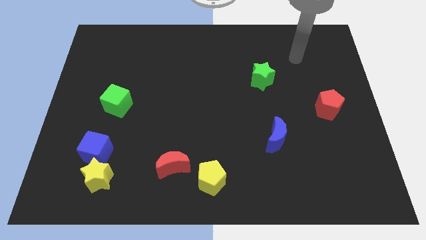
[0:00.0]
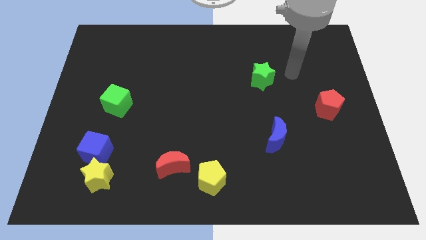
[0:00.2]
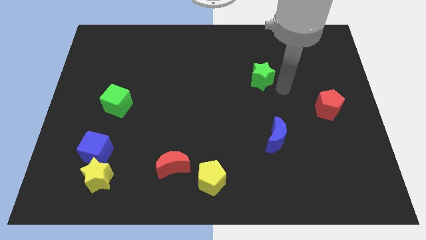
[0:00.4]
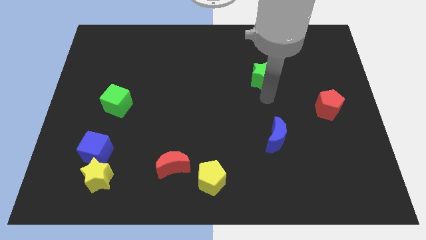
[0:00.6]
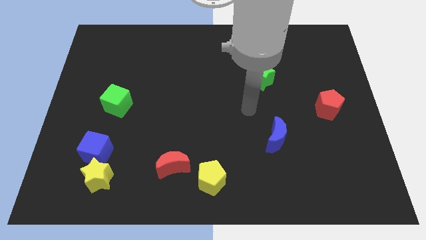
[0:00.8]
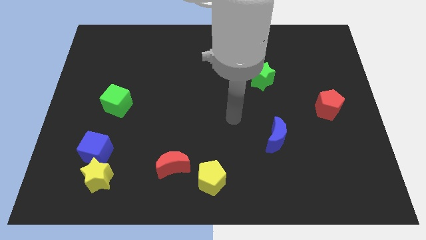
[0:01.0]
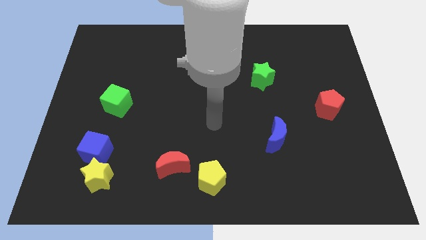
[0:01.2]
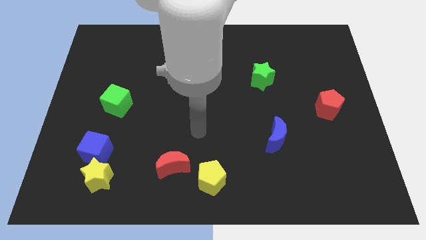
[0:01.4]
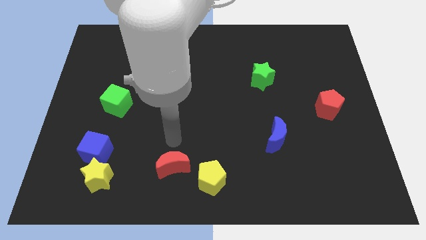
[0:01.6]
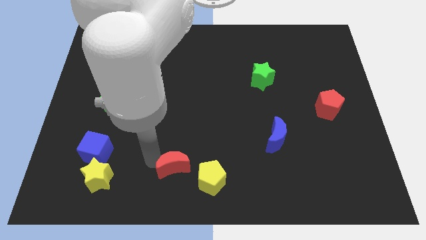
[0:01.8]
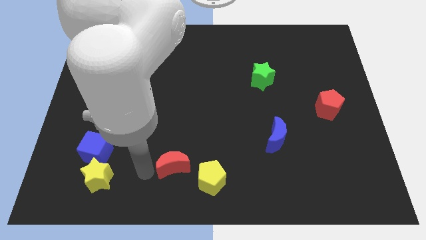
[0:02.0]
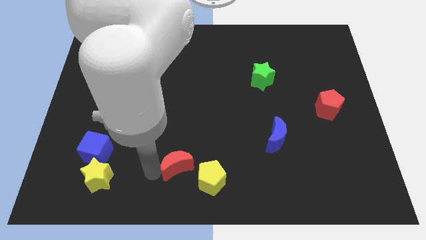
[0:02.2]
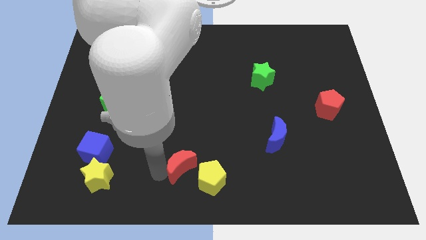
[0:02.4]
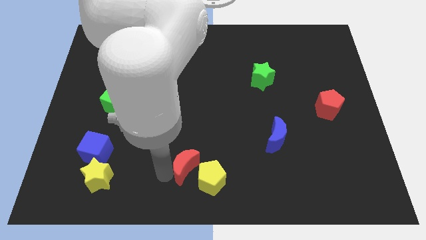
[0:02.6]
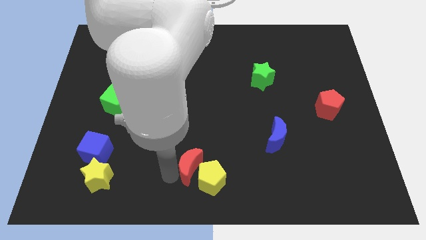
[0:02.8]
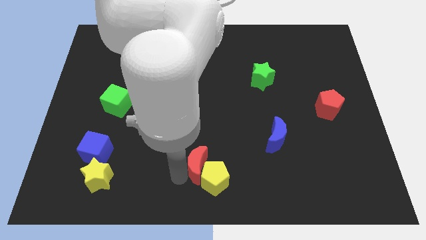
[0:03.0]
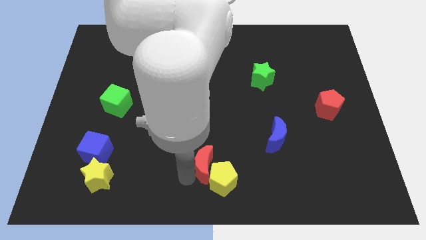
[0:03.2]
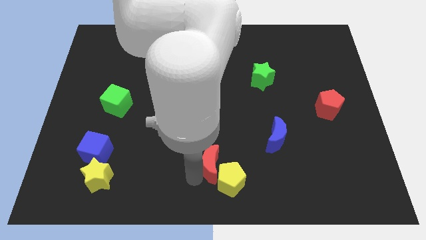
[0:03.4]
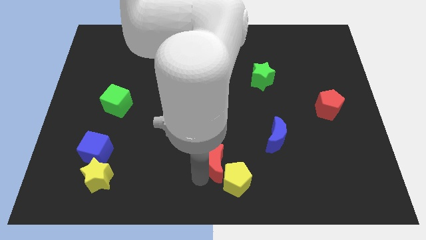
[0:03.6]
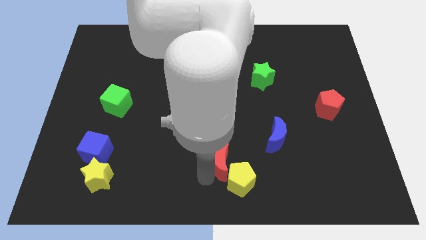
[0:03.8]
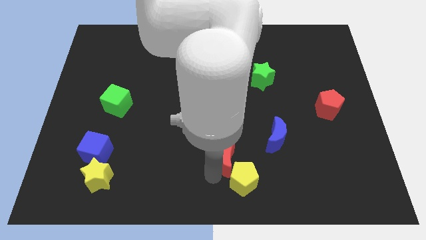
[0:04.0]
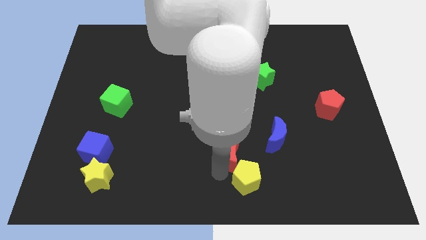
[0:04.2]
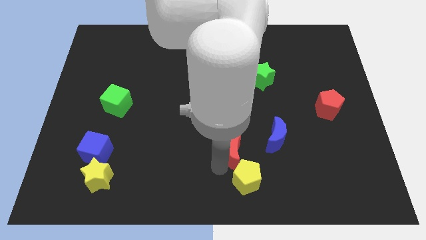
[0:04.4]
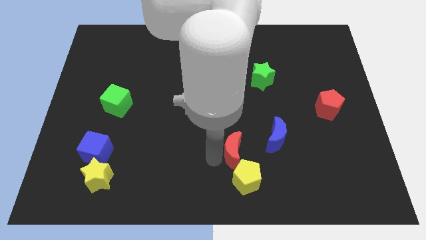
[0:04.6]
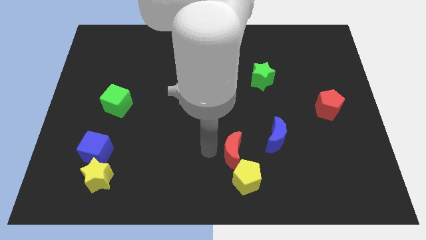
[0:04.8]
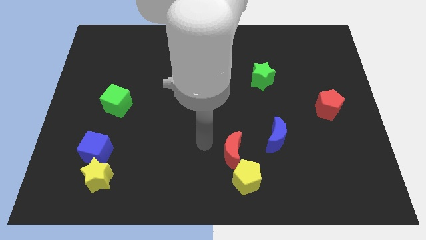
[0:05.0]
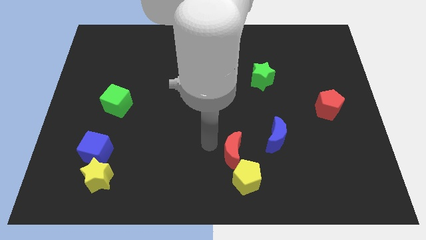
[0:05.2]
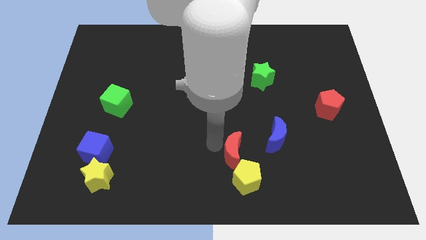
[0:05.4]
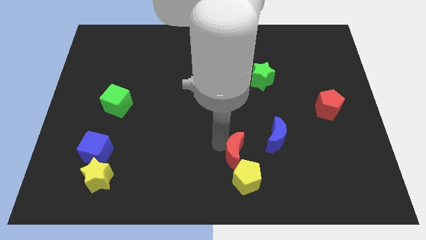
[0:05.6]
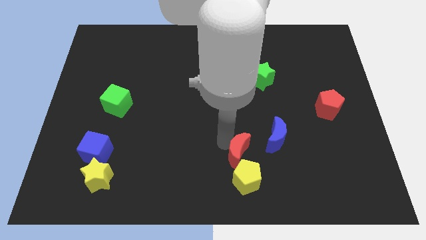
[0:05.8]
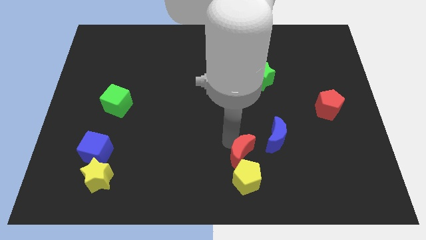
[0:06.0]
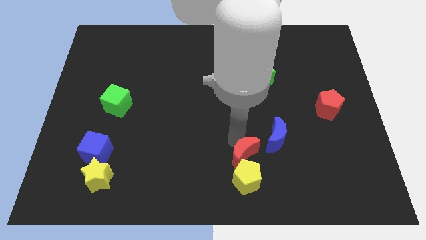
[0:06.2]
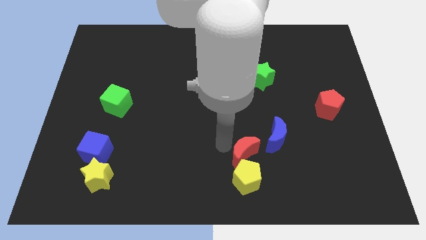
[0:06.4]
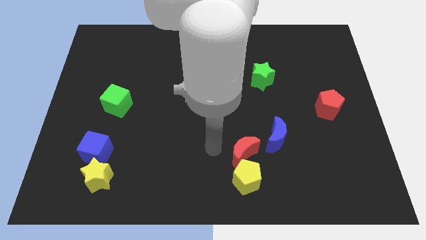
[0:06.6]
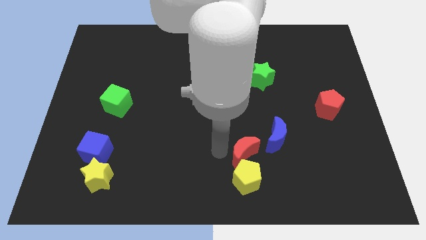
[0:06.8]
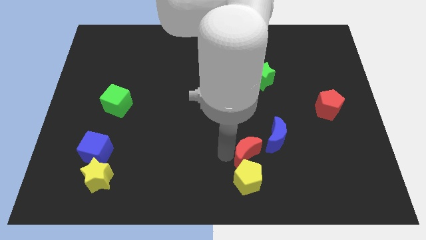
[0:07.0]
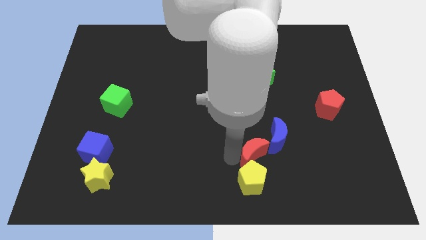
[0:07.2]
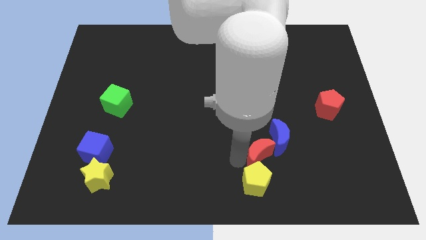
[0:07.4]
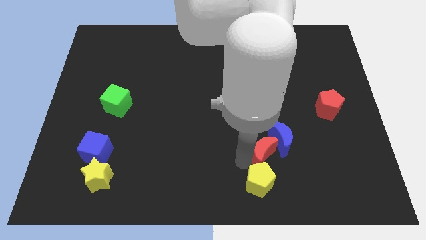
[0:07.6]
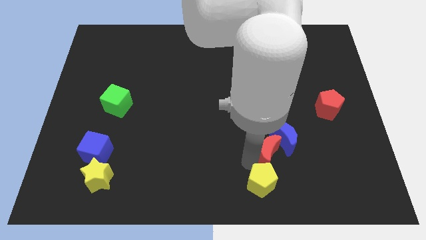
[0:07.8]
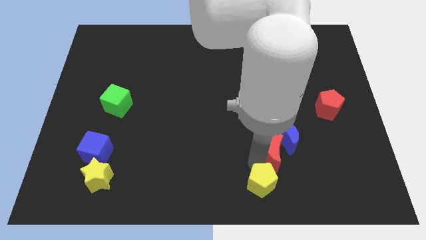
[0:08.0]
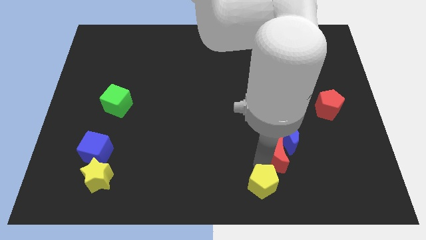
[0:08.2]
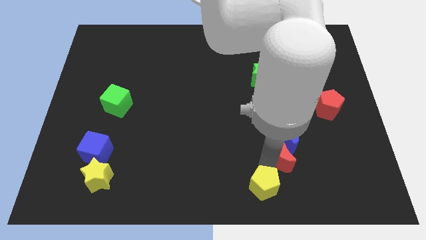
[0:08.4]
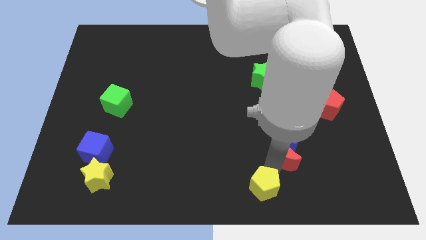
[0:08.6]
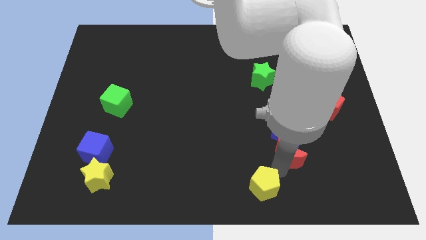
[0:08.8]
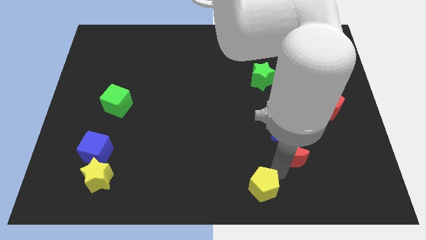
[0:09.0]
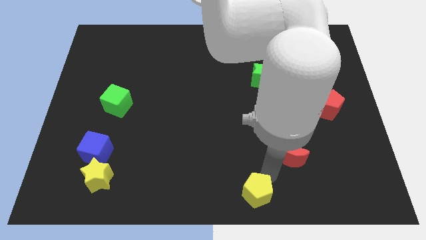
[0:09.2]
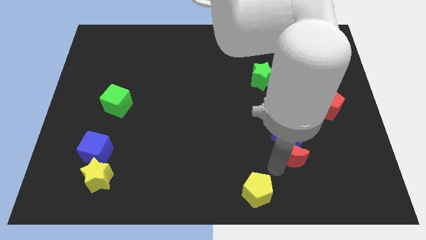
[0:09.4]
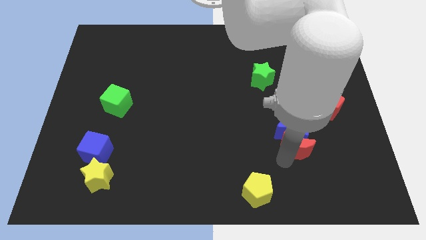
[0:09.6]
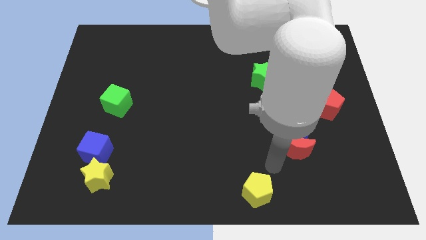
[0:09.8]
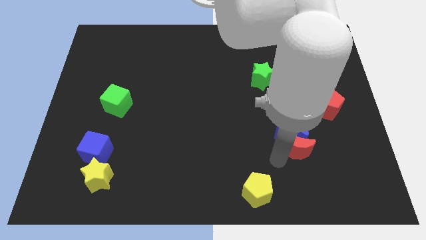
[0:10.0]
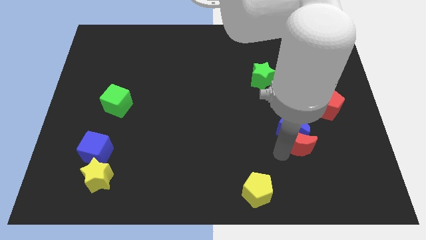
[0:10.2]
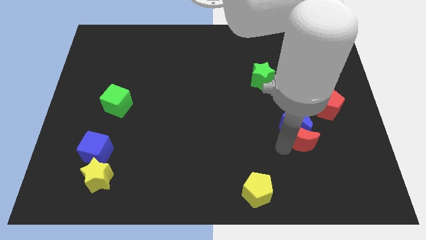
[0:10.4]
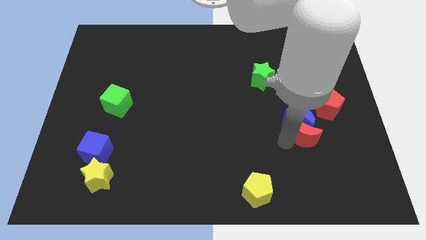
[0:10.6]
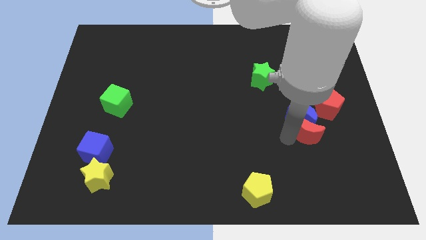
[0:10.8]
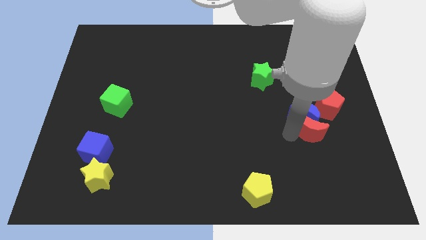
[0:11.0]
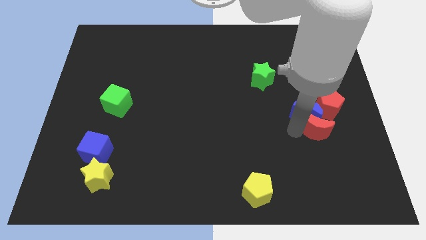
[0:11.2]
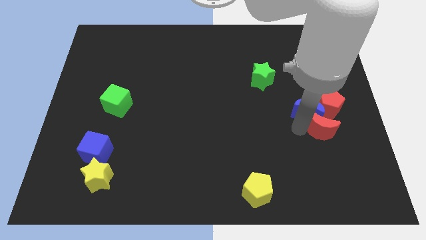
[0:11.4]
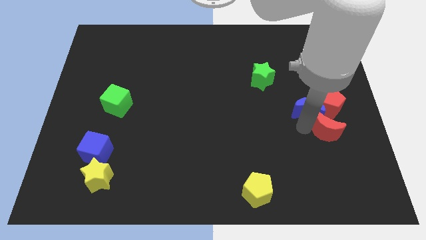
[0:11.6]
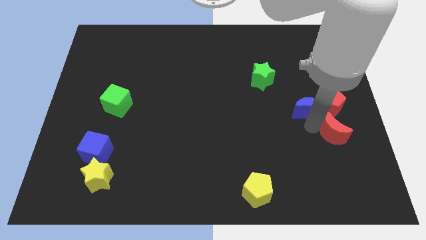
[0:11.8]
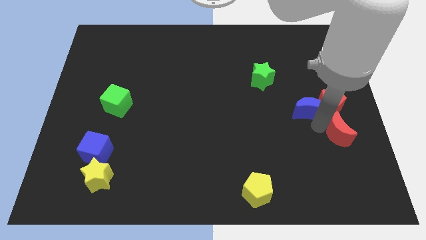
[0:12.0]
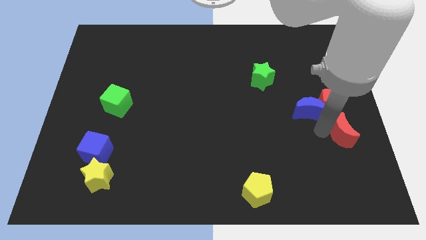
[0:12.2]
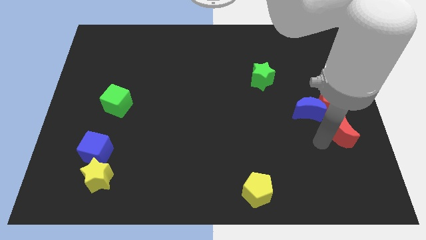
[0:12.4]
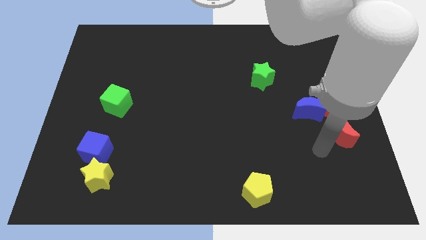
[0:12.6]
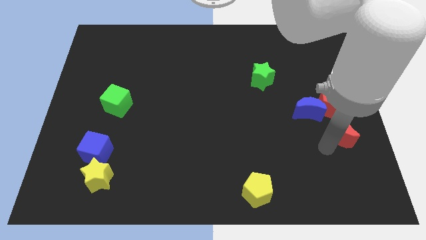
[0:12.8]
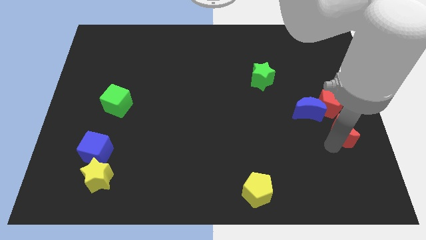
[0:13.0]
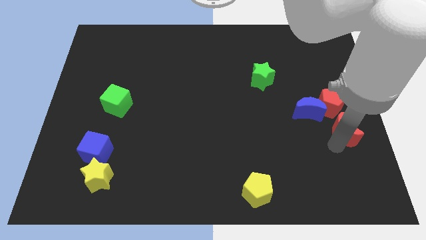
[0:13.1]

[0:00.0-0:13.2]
push the red moon to the right side of the board
